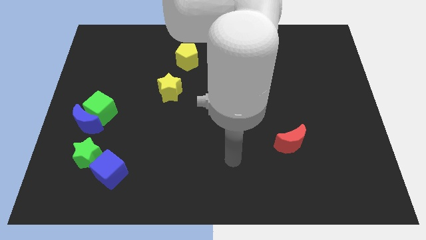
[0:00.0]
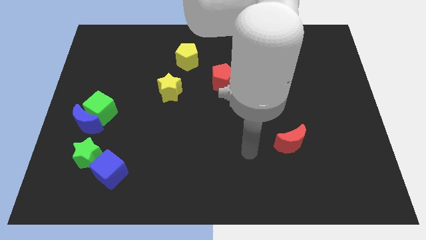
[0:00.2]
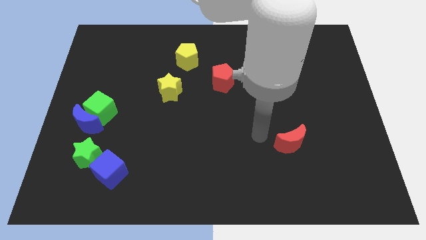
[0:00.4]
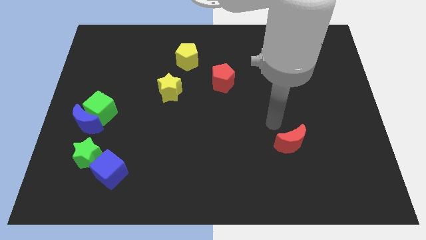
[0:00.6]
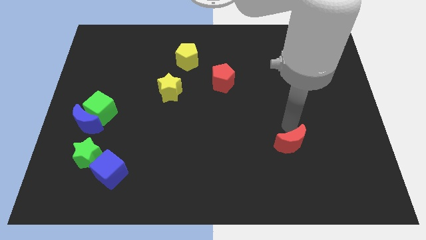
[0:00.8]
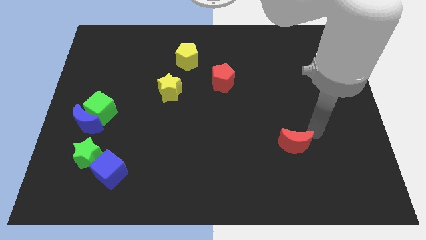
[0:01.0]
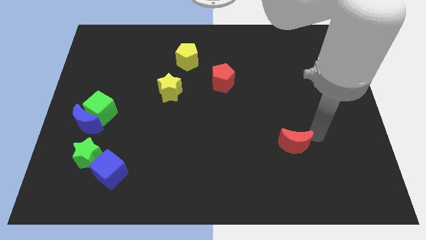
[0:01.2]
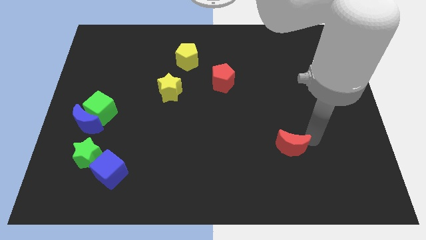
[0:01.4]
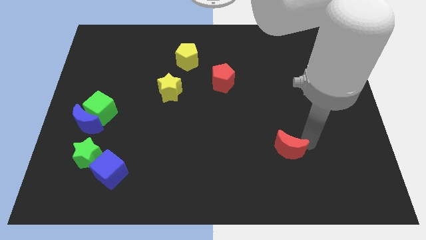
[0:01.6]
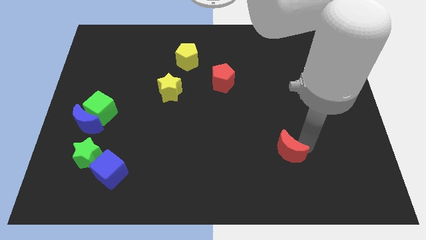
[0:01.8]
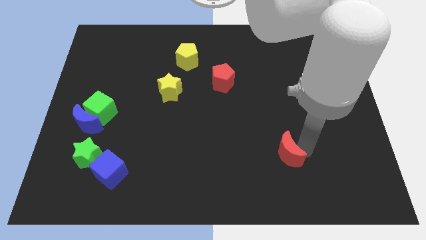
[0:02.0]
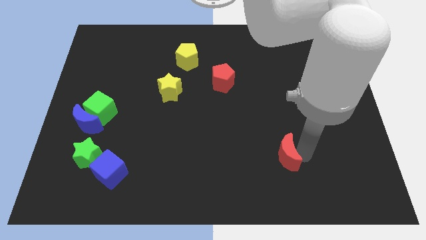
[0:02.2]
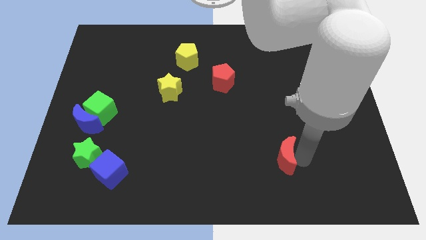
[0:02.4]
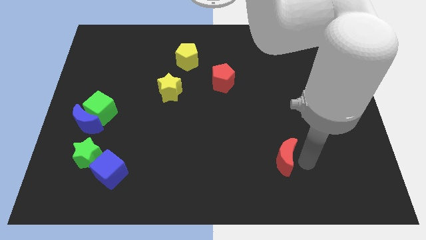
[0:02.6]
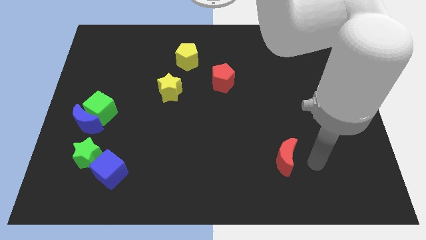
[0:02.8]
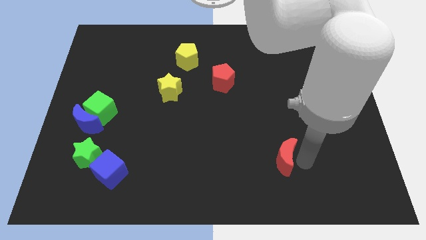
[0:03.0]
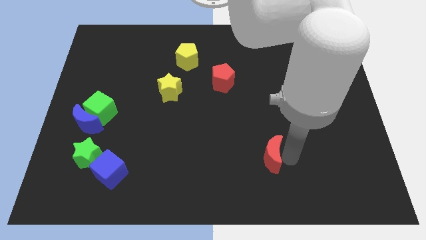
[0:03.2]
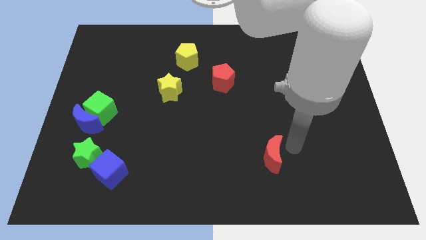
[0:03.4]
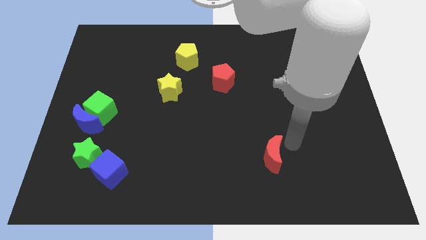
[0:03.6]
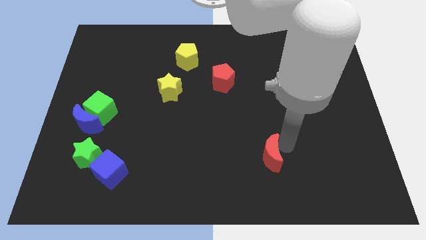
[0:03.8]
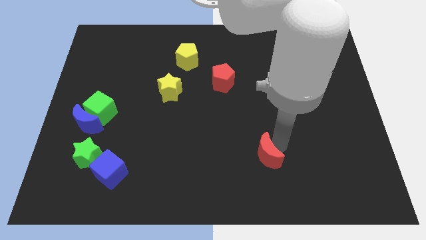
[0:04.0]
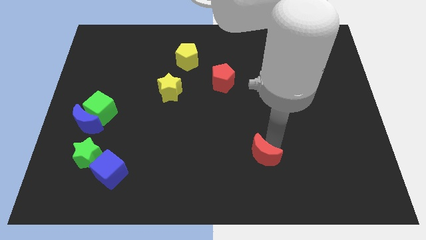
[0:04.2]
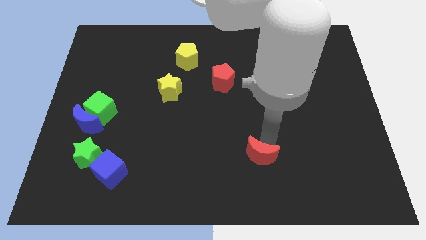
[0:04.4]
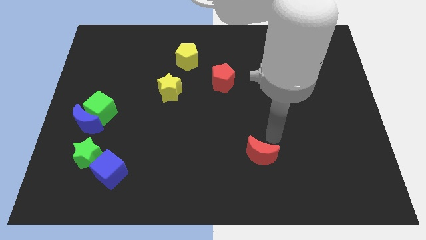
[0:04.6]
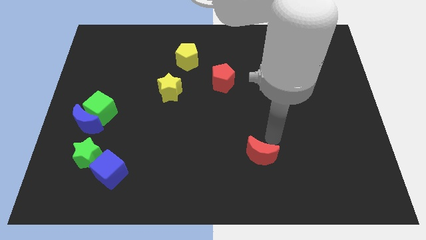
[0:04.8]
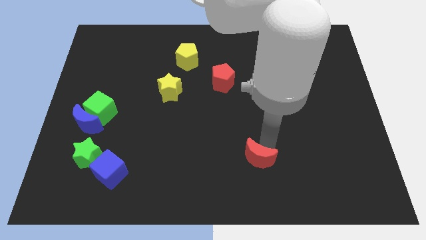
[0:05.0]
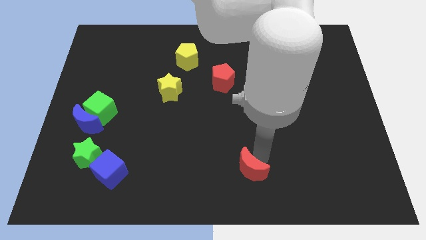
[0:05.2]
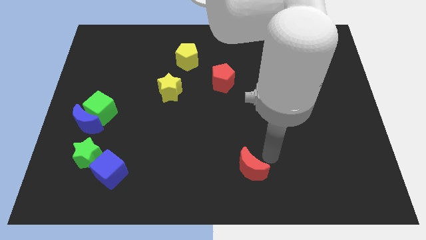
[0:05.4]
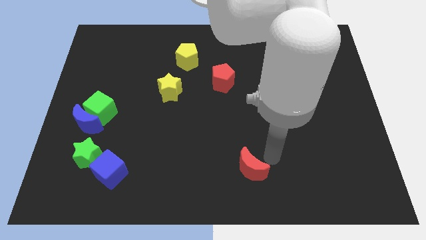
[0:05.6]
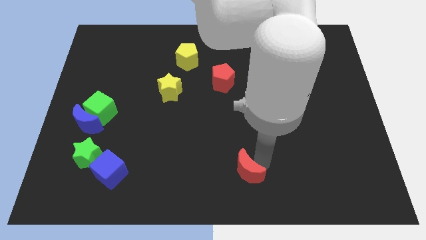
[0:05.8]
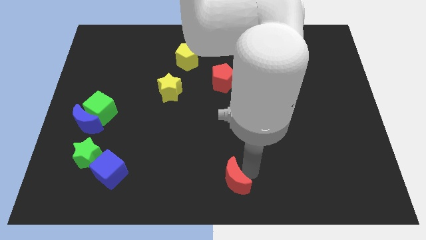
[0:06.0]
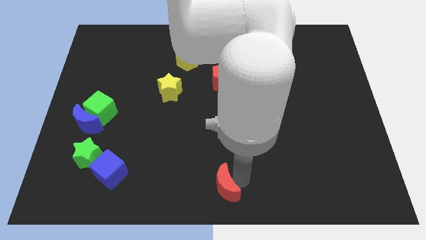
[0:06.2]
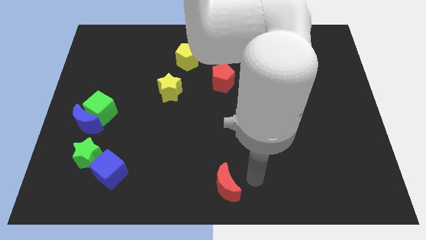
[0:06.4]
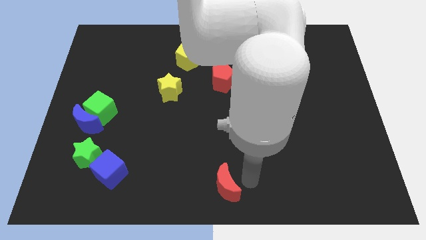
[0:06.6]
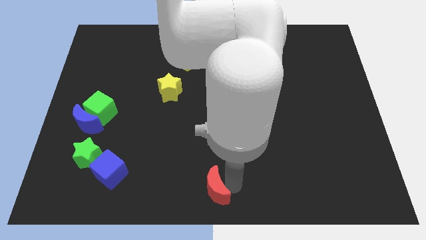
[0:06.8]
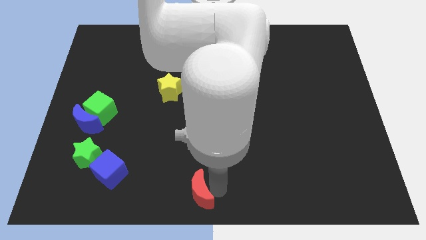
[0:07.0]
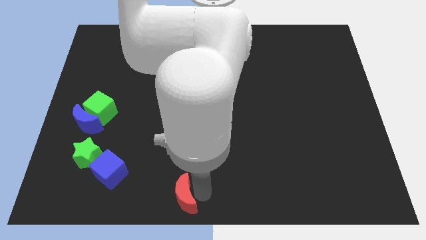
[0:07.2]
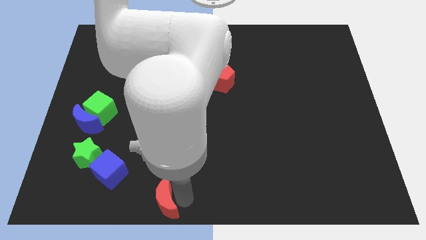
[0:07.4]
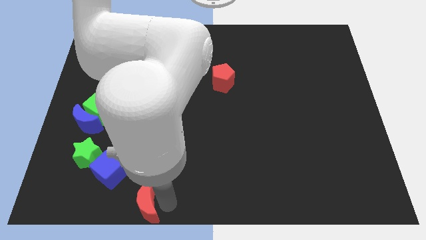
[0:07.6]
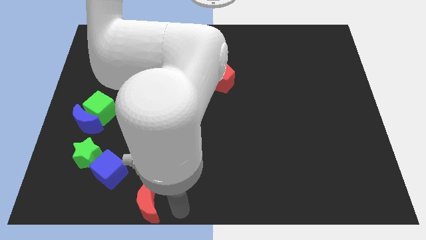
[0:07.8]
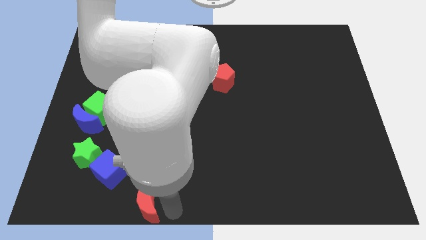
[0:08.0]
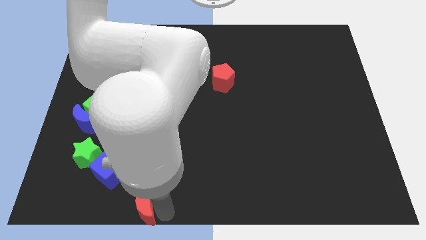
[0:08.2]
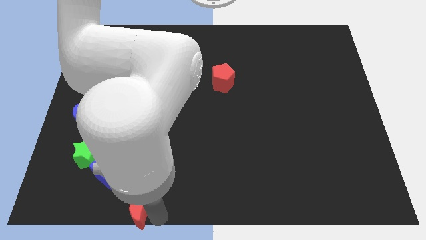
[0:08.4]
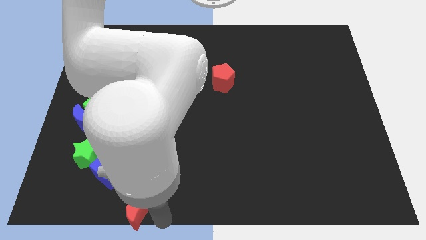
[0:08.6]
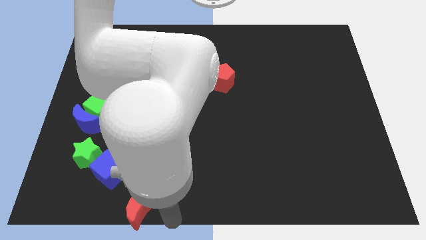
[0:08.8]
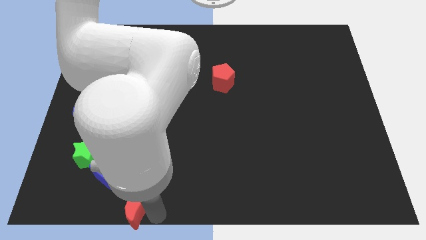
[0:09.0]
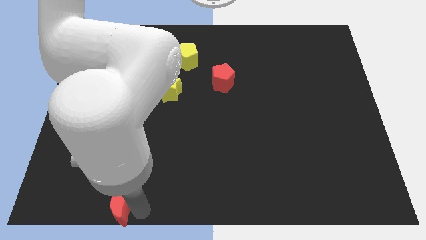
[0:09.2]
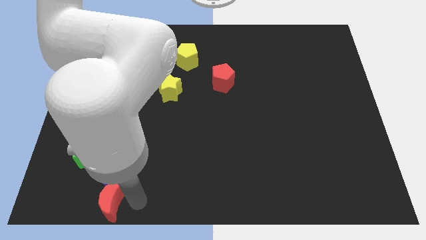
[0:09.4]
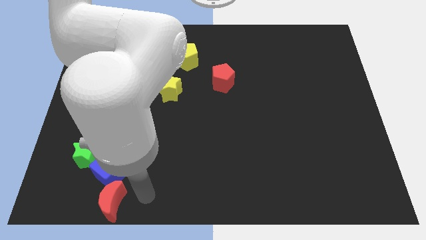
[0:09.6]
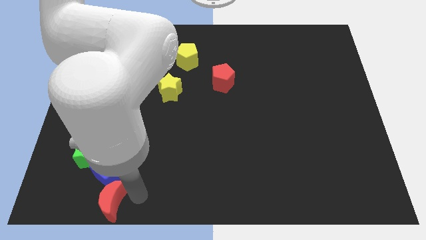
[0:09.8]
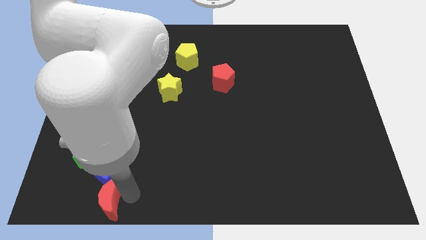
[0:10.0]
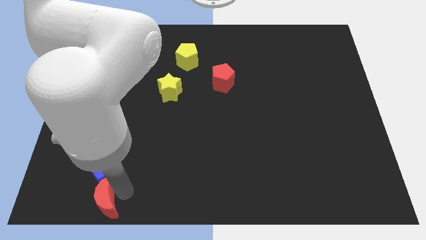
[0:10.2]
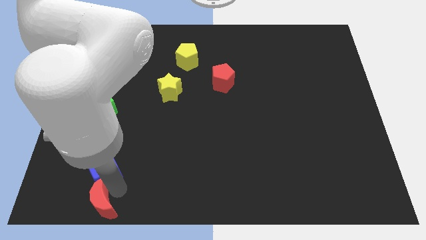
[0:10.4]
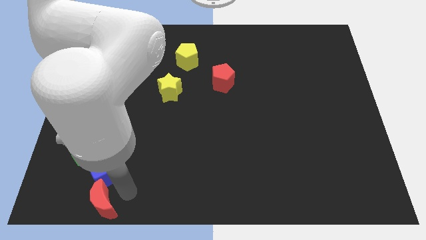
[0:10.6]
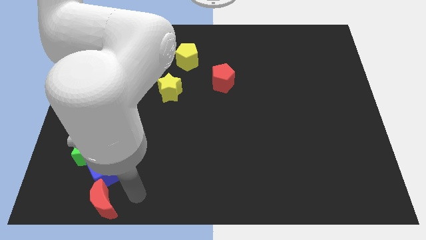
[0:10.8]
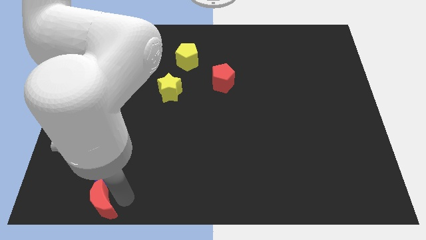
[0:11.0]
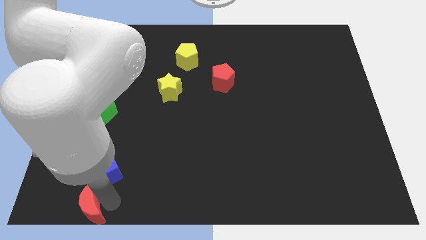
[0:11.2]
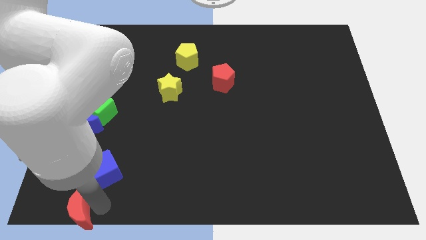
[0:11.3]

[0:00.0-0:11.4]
move the red moon to the bottom left corner

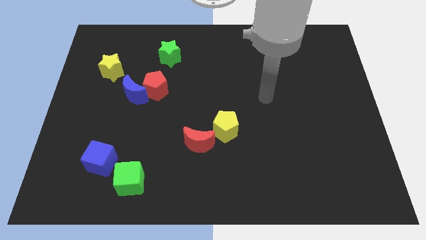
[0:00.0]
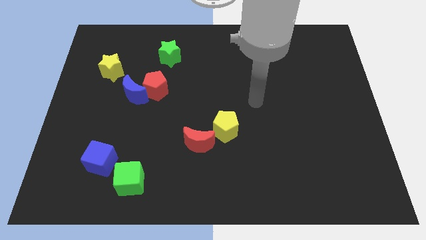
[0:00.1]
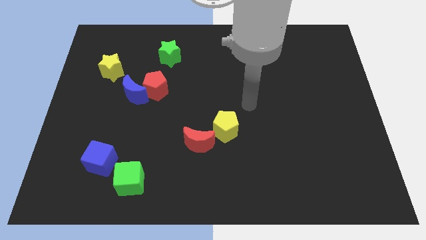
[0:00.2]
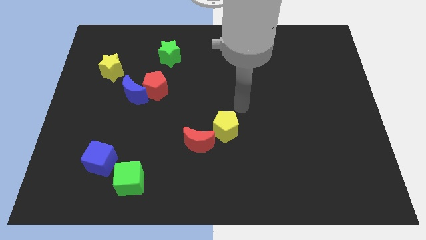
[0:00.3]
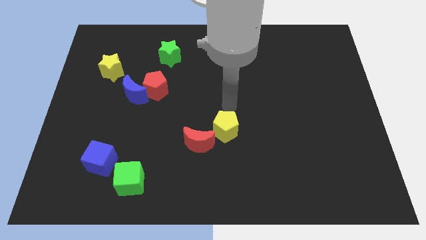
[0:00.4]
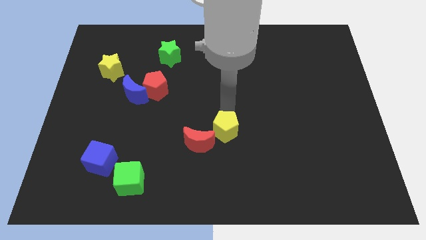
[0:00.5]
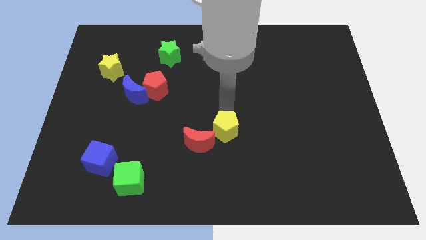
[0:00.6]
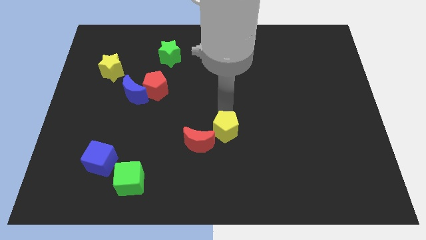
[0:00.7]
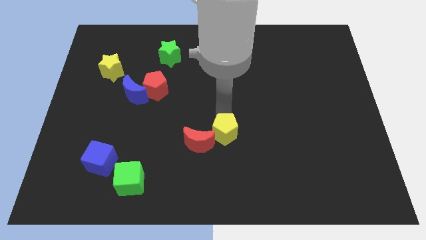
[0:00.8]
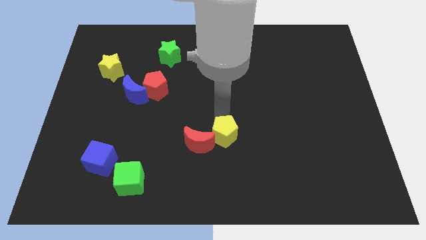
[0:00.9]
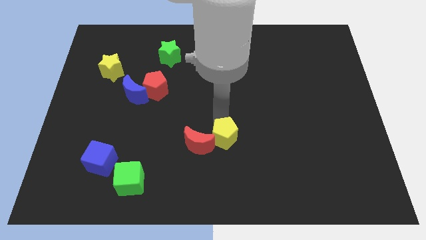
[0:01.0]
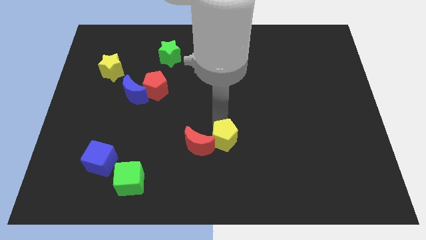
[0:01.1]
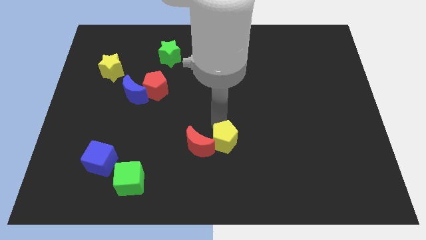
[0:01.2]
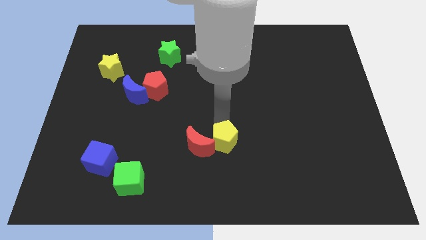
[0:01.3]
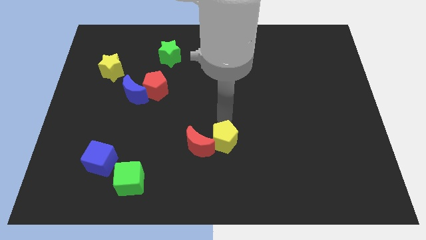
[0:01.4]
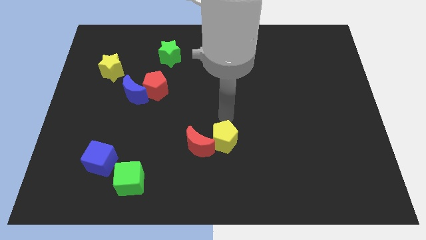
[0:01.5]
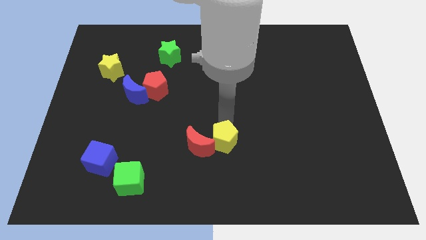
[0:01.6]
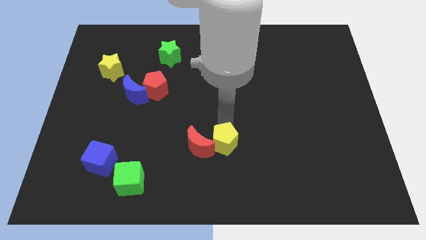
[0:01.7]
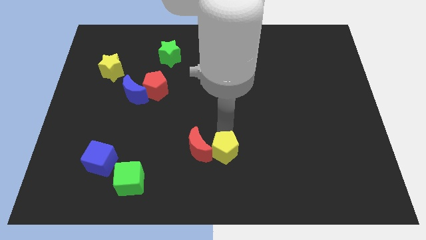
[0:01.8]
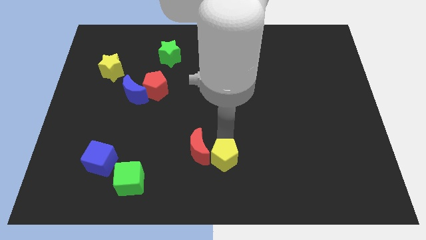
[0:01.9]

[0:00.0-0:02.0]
put the yellow pentagon to the bottom side
